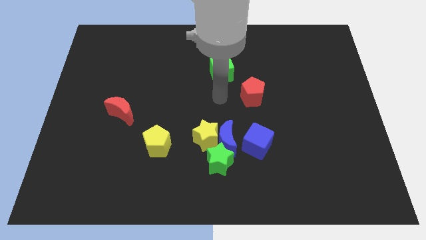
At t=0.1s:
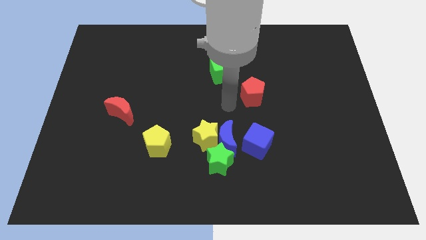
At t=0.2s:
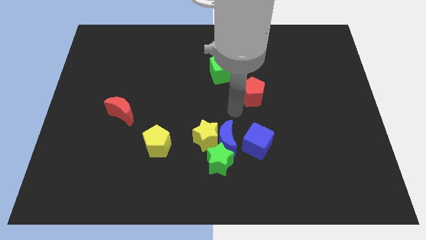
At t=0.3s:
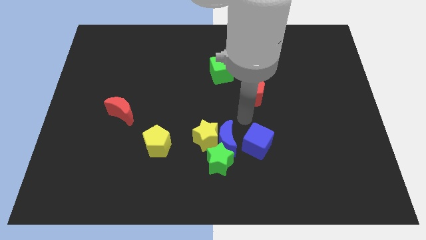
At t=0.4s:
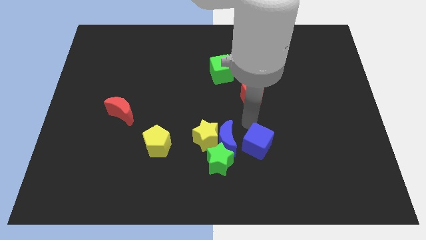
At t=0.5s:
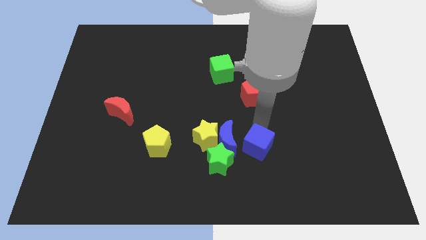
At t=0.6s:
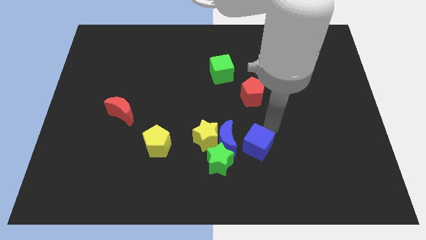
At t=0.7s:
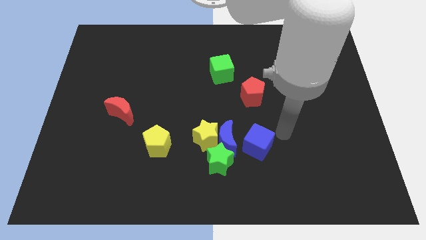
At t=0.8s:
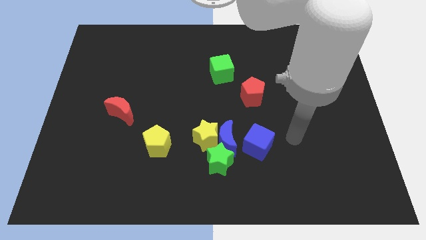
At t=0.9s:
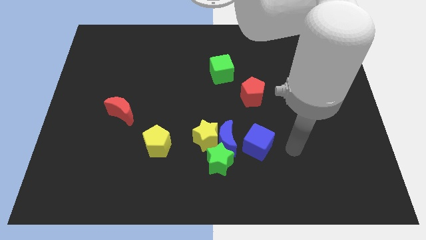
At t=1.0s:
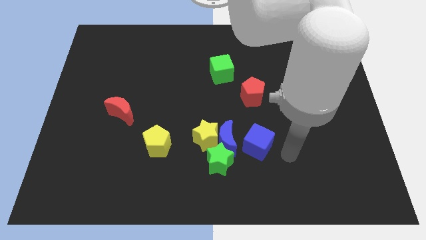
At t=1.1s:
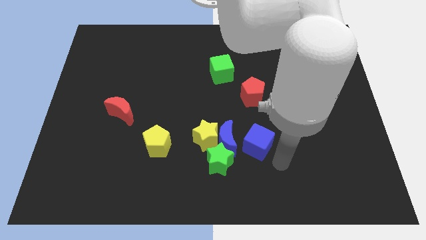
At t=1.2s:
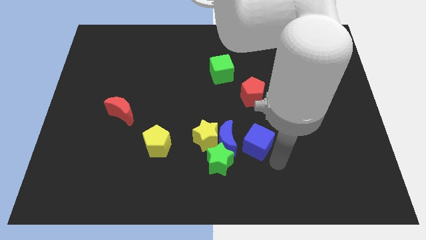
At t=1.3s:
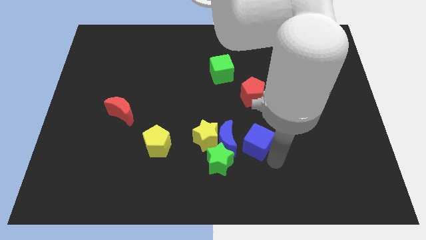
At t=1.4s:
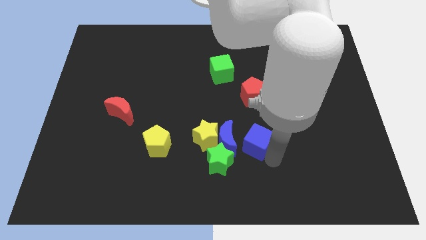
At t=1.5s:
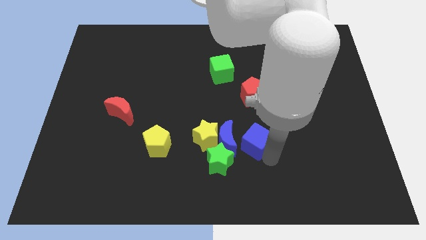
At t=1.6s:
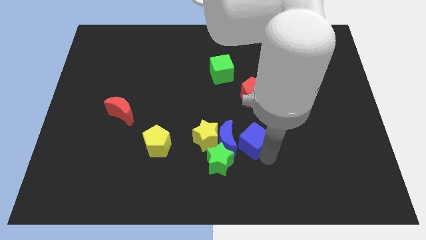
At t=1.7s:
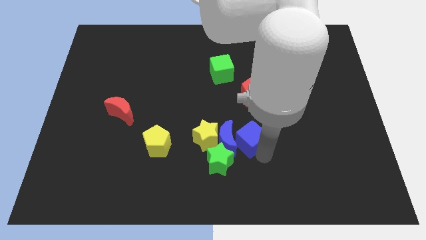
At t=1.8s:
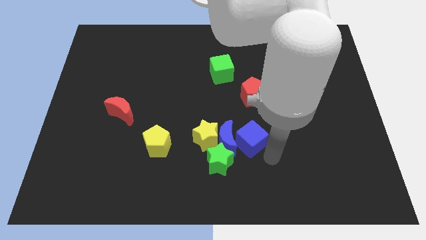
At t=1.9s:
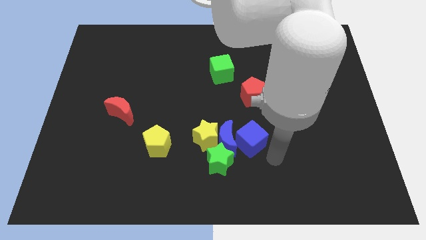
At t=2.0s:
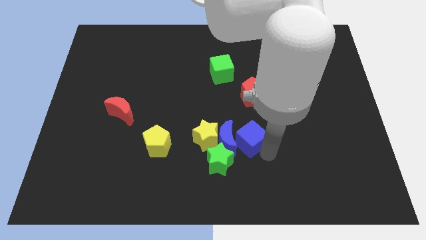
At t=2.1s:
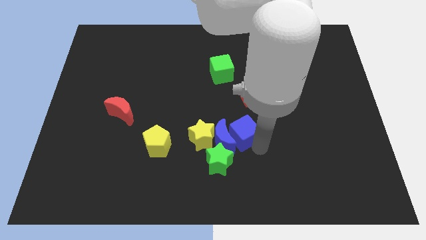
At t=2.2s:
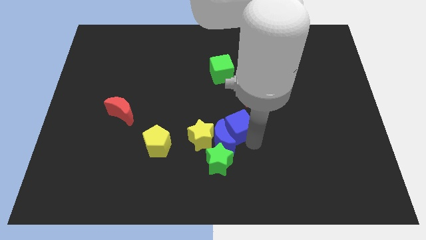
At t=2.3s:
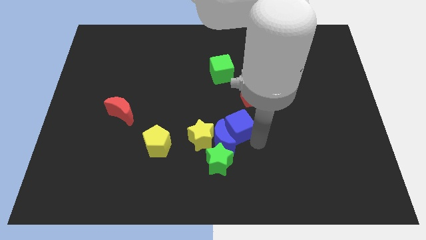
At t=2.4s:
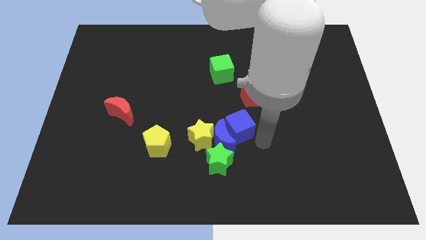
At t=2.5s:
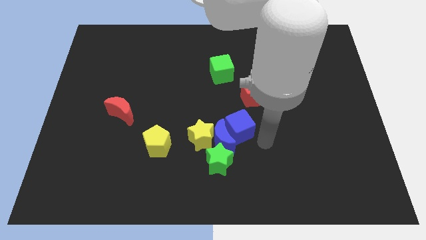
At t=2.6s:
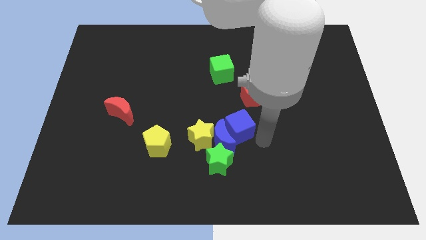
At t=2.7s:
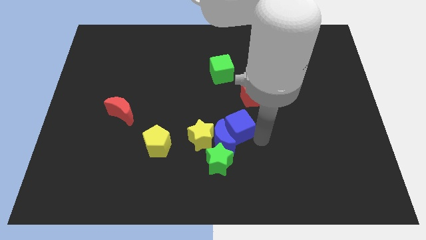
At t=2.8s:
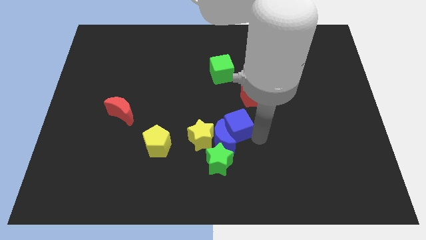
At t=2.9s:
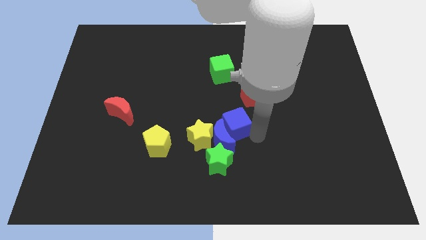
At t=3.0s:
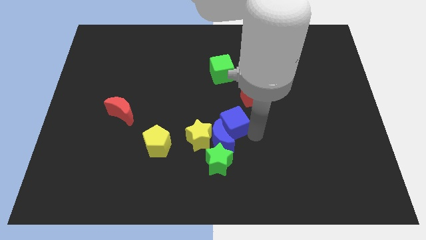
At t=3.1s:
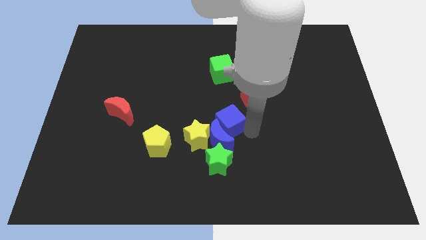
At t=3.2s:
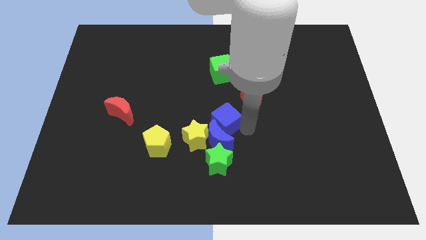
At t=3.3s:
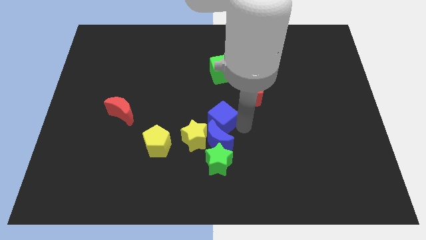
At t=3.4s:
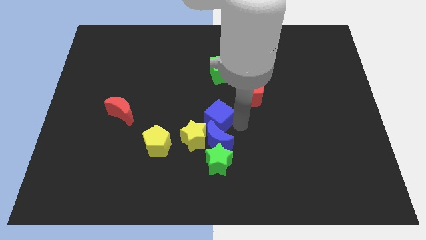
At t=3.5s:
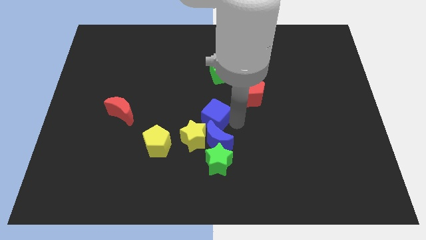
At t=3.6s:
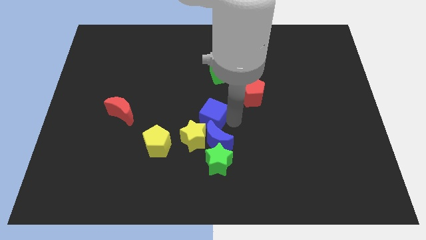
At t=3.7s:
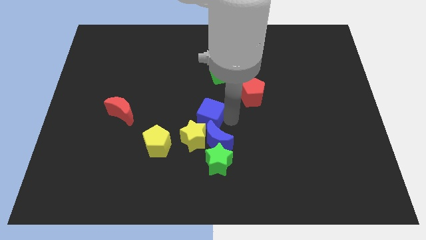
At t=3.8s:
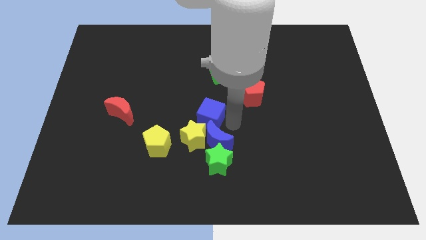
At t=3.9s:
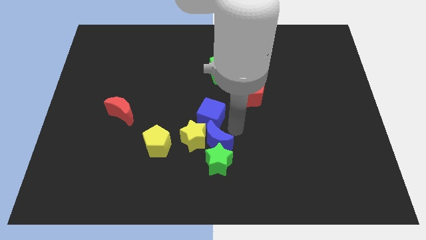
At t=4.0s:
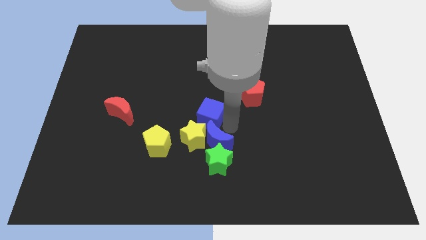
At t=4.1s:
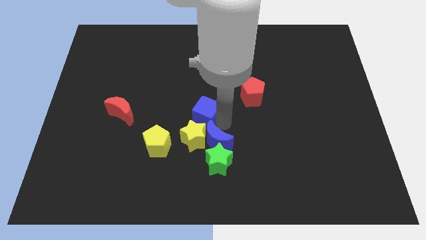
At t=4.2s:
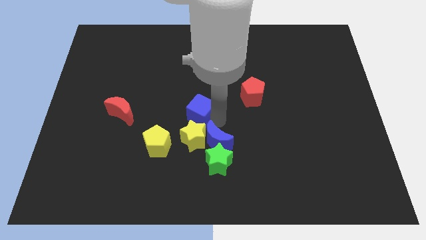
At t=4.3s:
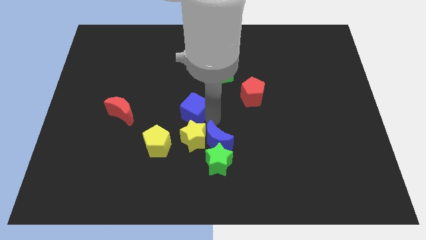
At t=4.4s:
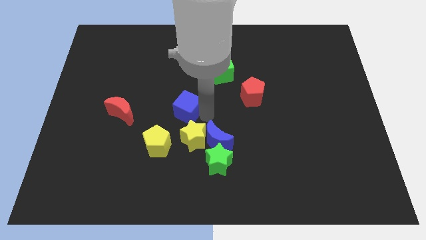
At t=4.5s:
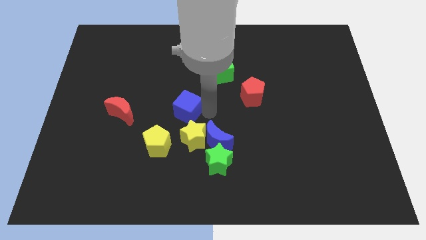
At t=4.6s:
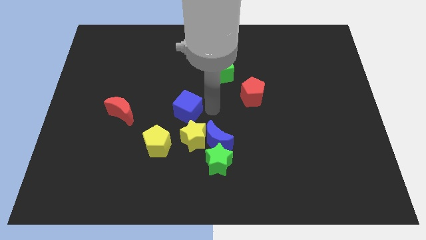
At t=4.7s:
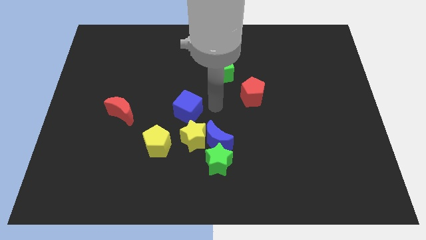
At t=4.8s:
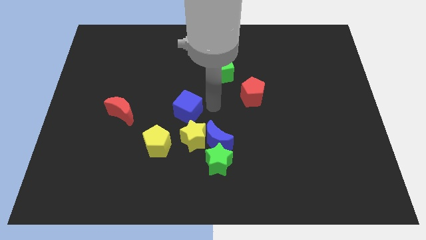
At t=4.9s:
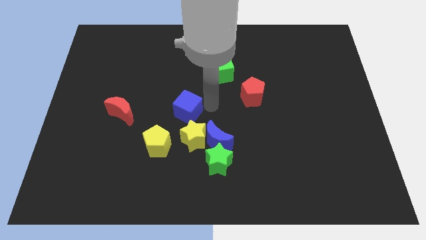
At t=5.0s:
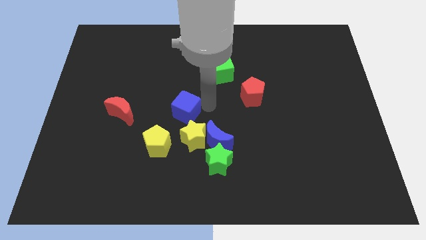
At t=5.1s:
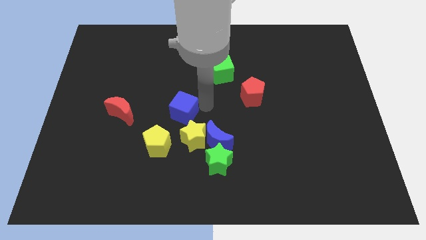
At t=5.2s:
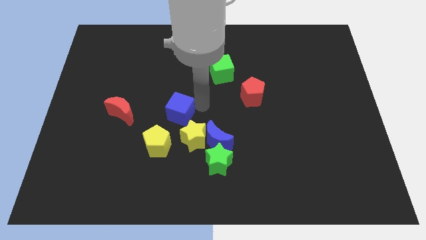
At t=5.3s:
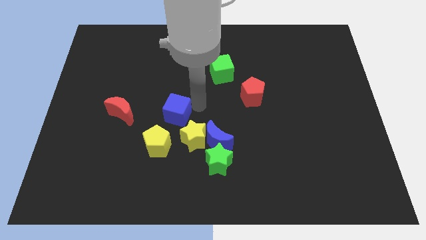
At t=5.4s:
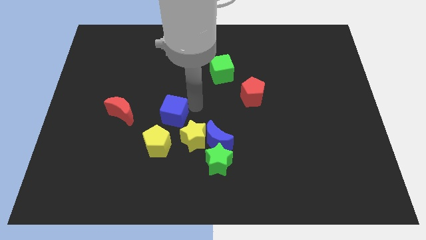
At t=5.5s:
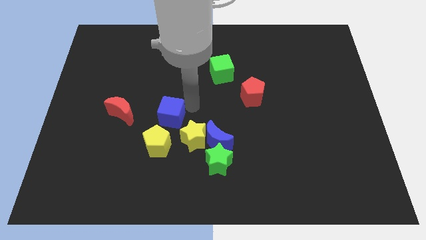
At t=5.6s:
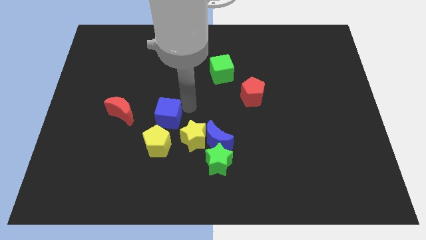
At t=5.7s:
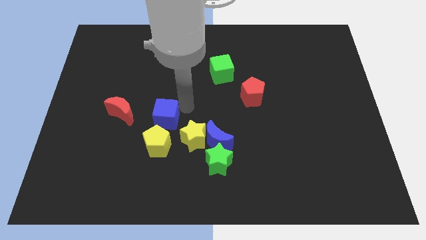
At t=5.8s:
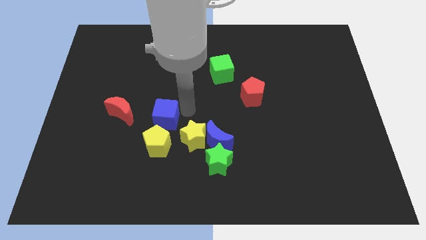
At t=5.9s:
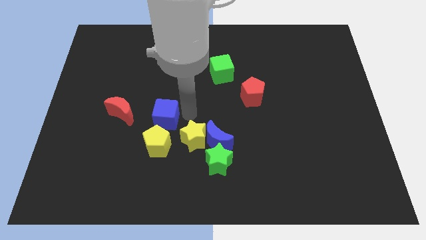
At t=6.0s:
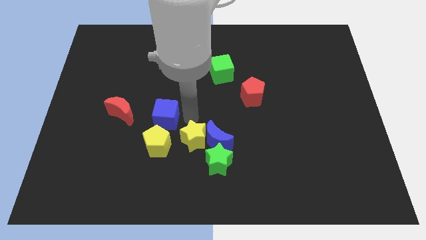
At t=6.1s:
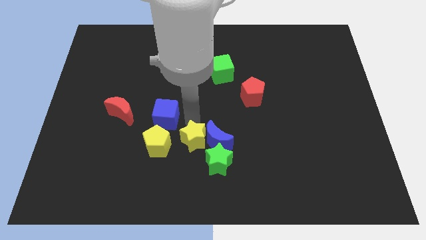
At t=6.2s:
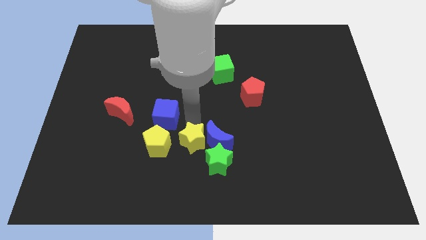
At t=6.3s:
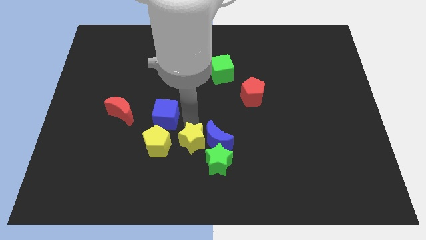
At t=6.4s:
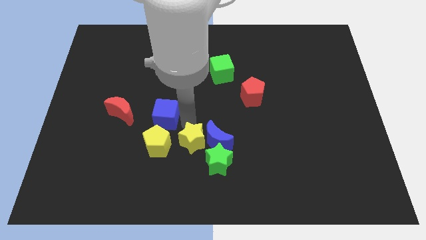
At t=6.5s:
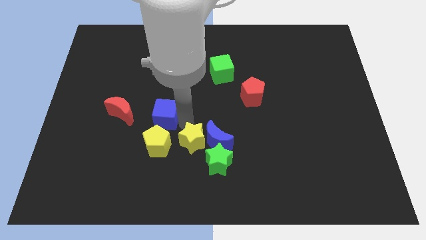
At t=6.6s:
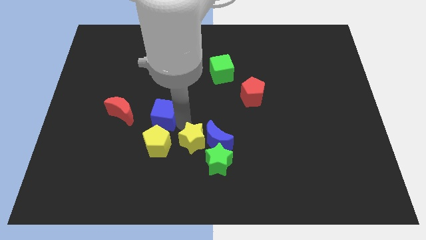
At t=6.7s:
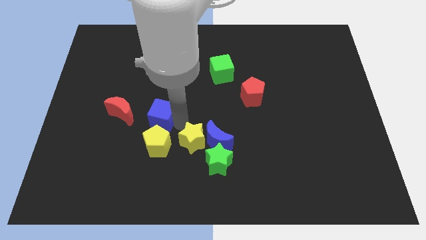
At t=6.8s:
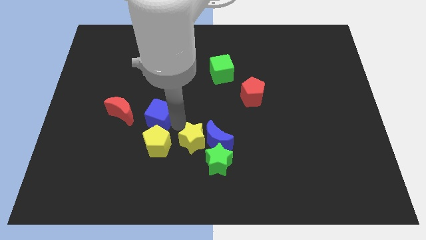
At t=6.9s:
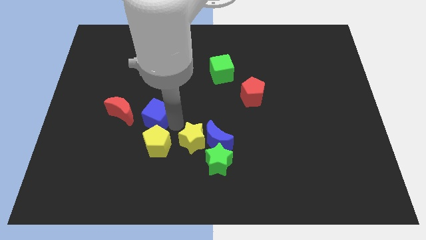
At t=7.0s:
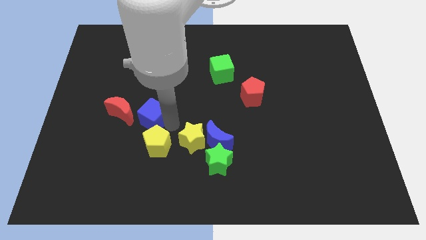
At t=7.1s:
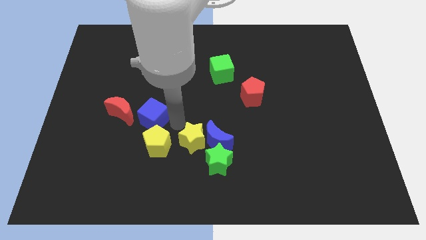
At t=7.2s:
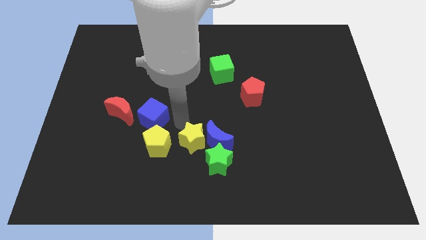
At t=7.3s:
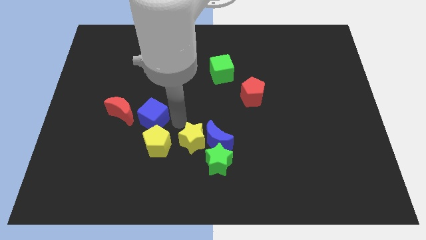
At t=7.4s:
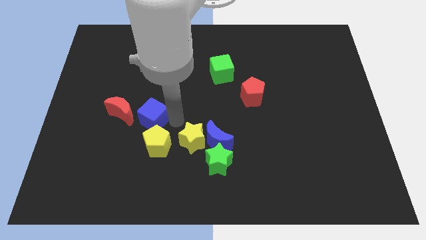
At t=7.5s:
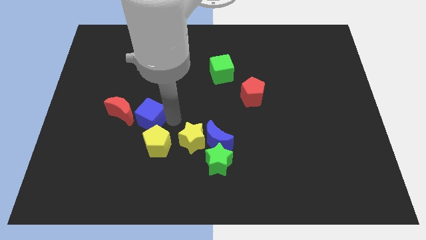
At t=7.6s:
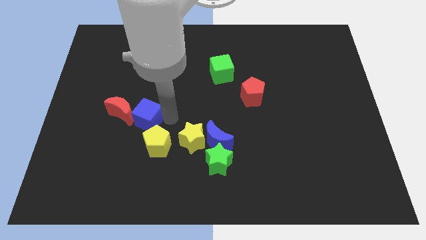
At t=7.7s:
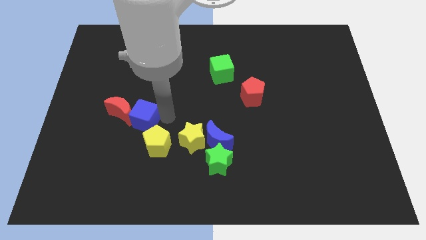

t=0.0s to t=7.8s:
push the blue cube to the red moon
